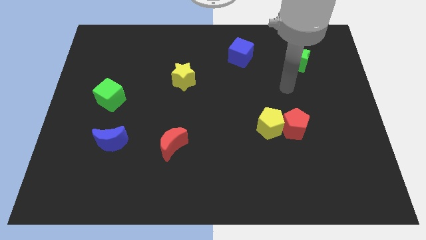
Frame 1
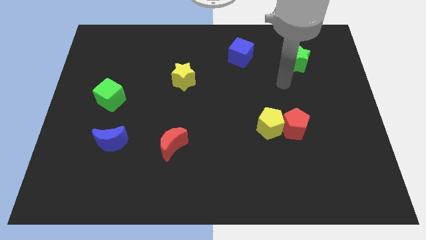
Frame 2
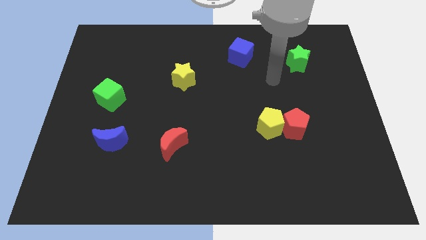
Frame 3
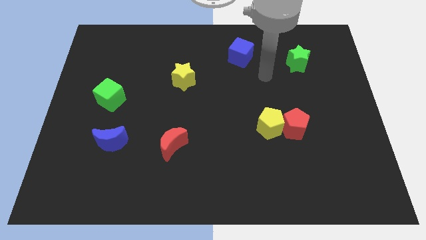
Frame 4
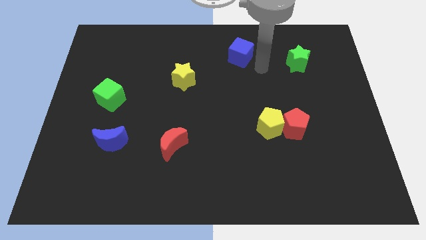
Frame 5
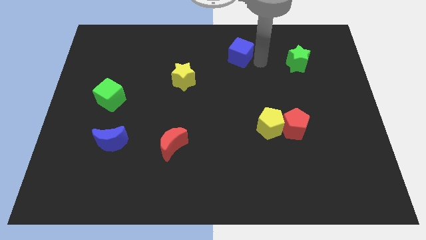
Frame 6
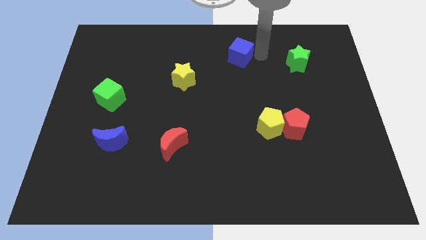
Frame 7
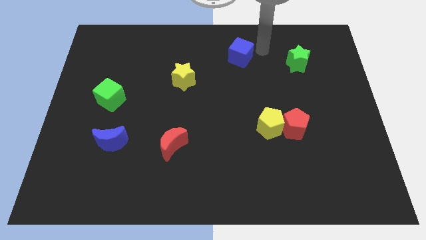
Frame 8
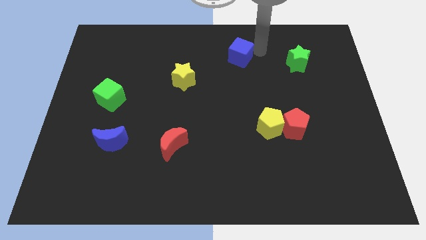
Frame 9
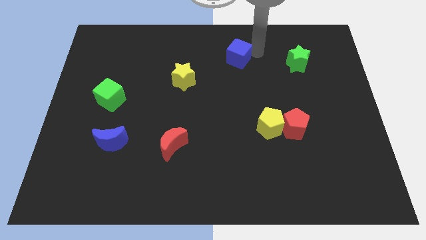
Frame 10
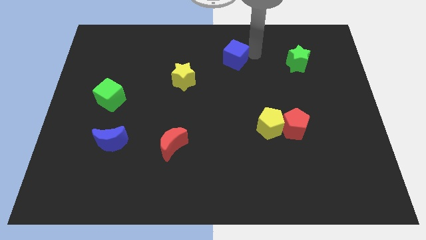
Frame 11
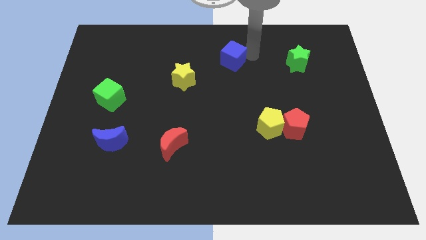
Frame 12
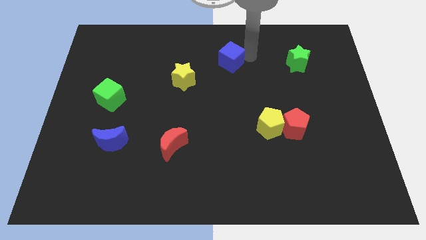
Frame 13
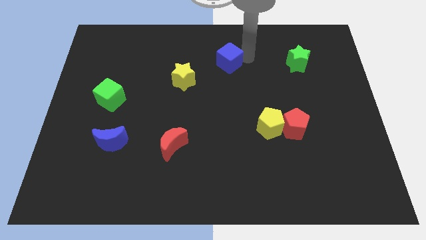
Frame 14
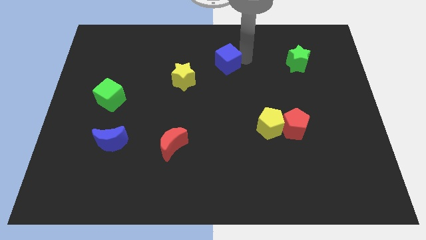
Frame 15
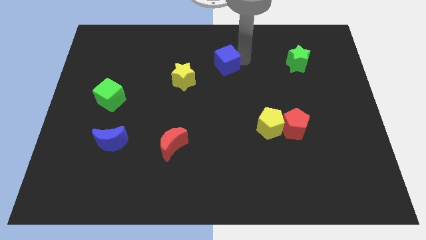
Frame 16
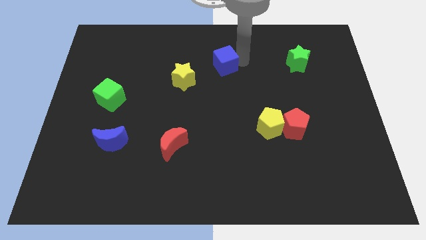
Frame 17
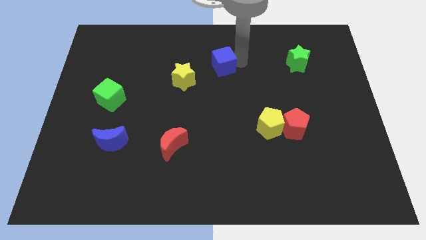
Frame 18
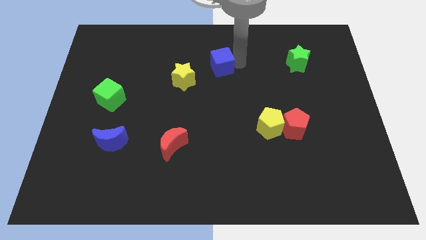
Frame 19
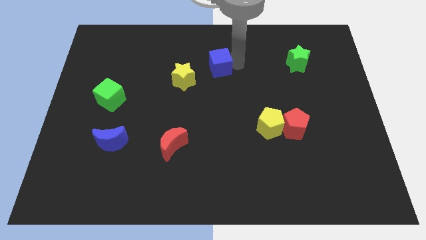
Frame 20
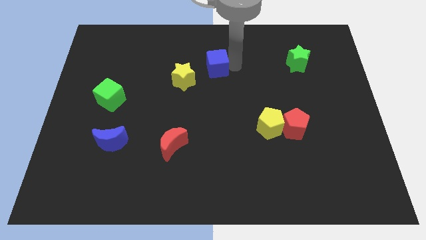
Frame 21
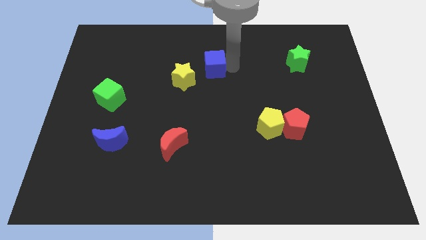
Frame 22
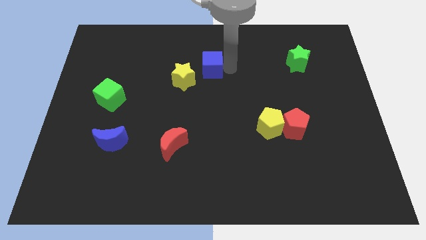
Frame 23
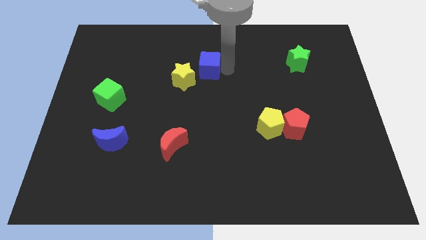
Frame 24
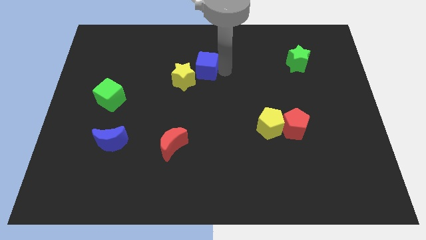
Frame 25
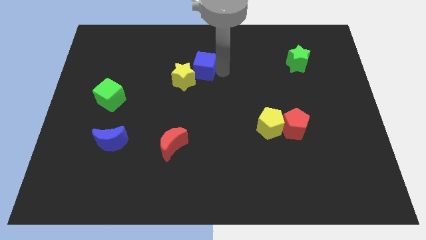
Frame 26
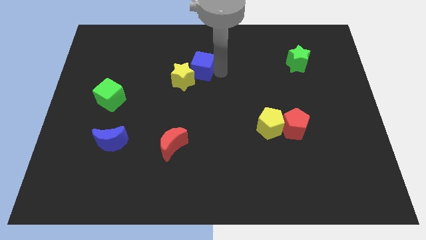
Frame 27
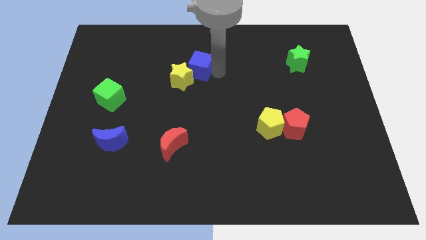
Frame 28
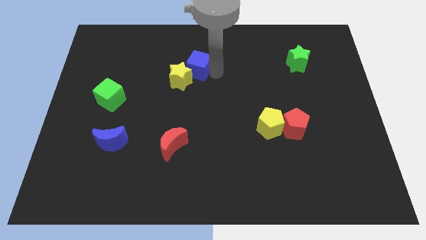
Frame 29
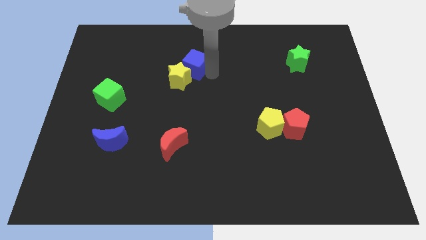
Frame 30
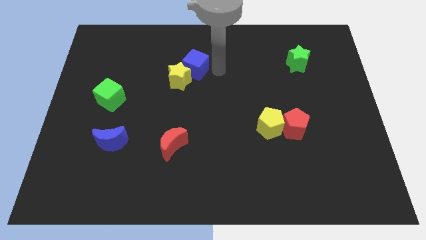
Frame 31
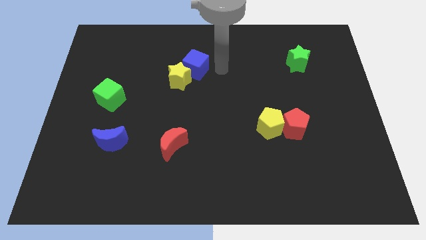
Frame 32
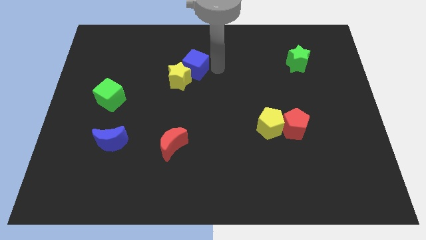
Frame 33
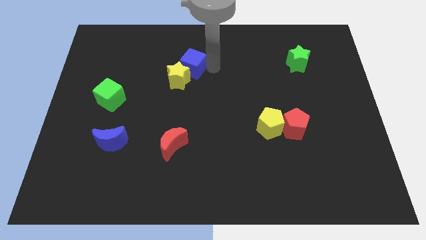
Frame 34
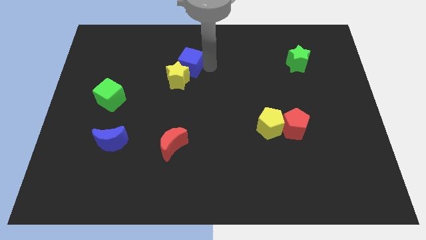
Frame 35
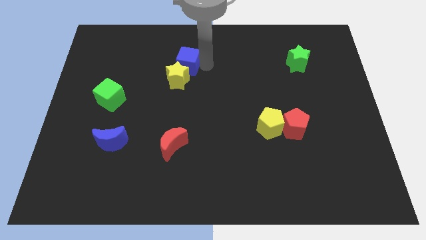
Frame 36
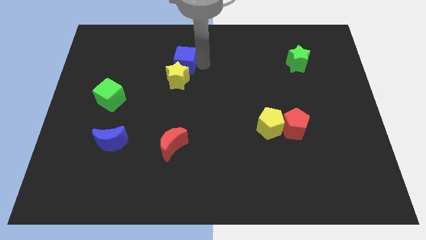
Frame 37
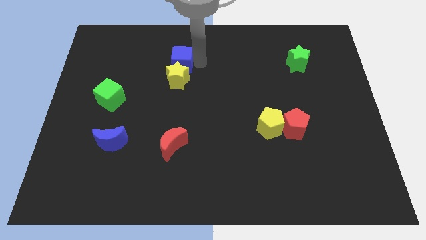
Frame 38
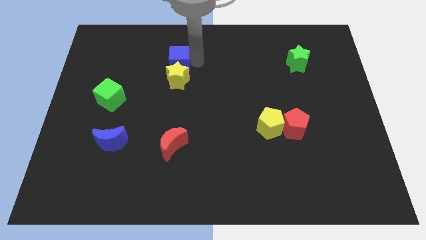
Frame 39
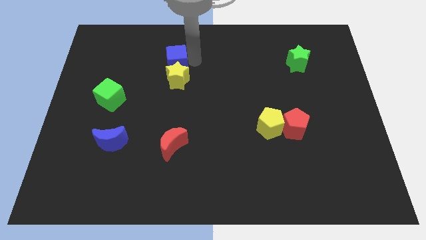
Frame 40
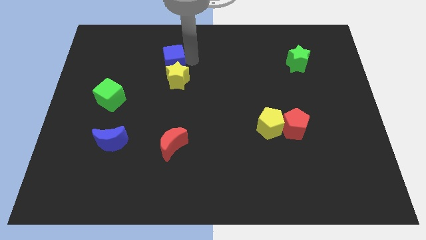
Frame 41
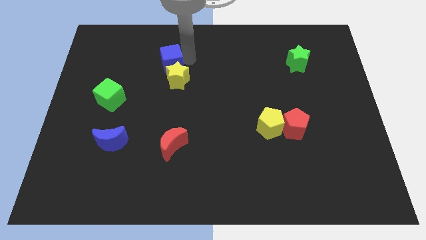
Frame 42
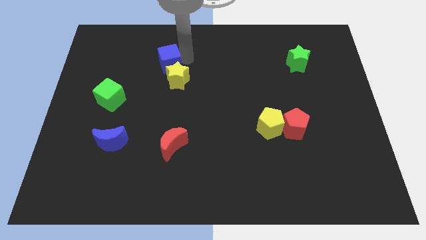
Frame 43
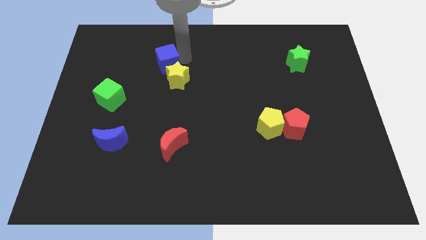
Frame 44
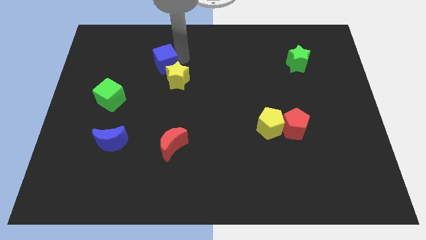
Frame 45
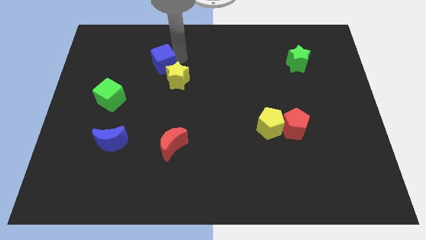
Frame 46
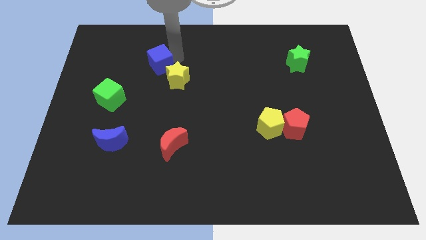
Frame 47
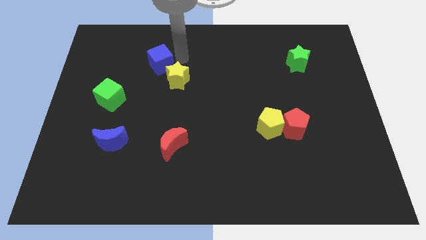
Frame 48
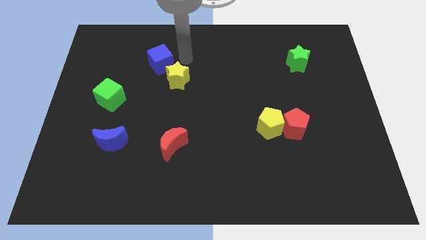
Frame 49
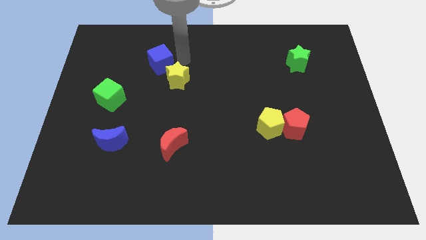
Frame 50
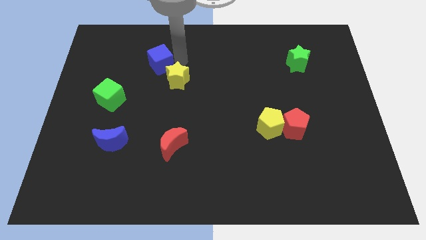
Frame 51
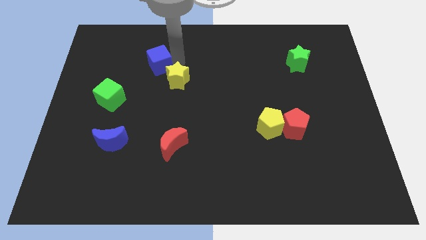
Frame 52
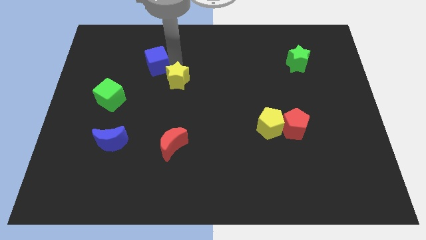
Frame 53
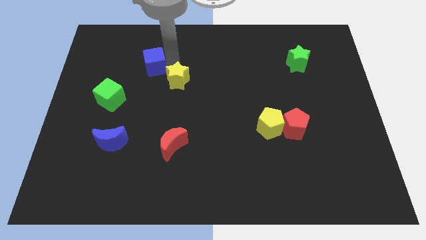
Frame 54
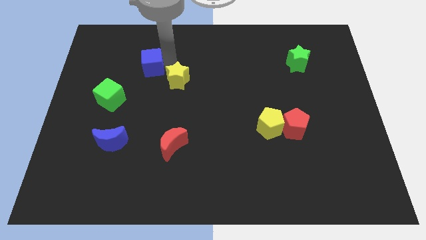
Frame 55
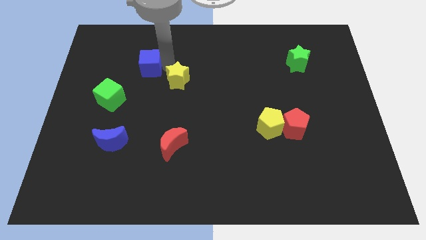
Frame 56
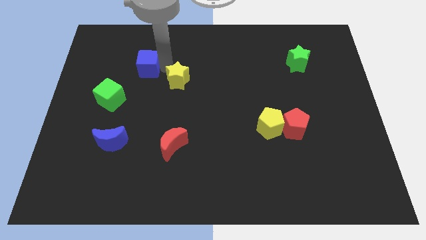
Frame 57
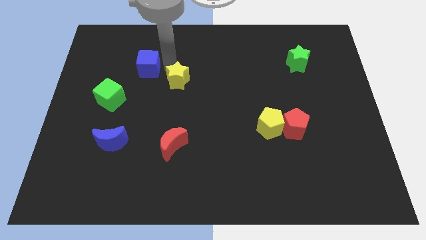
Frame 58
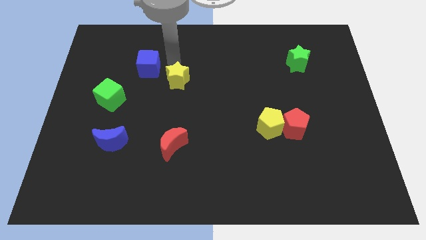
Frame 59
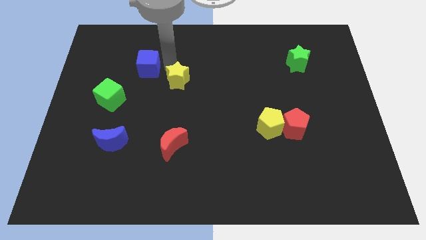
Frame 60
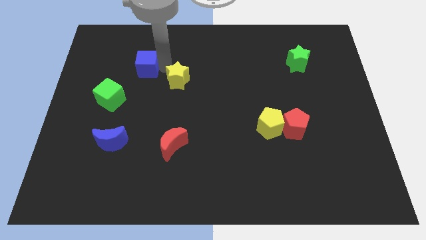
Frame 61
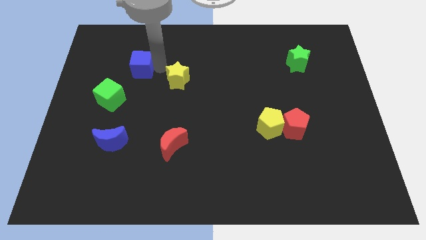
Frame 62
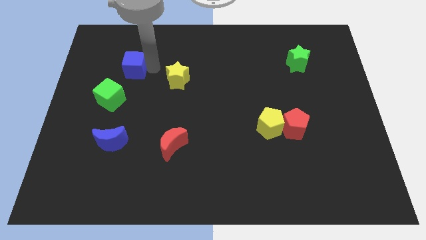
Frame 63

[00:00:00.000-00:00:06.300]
put the blue cube above the green cube

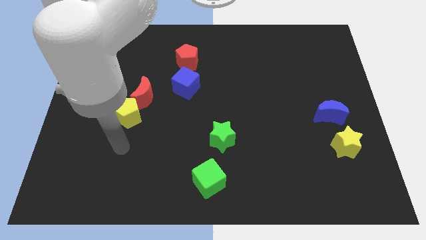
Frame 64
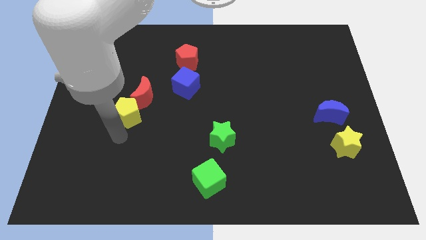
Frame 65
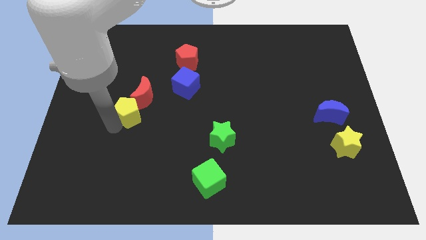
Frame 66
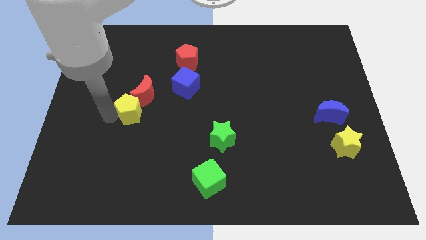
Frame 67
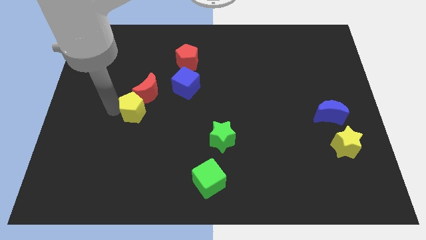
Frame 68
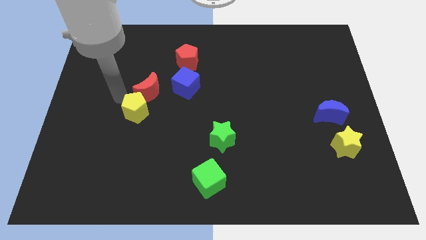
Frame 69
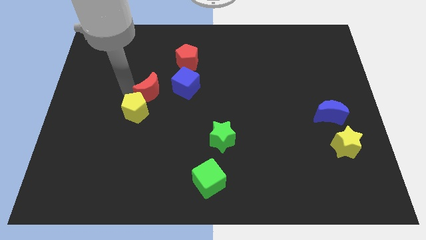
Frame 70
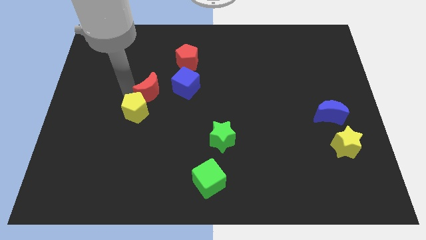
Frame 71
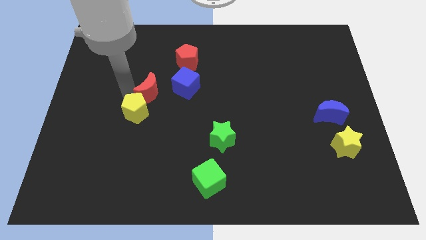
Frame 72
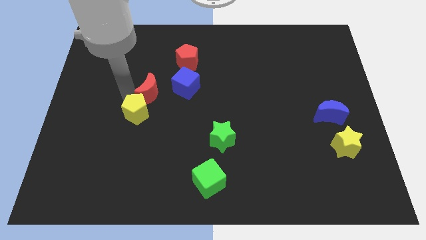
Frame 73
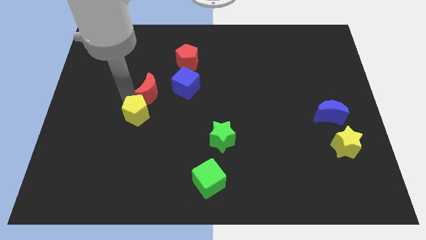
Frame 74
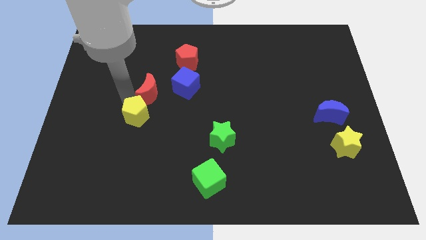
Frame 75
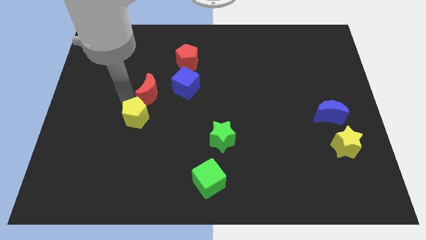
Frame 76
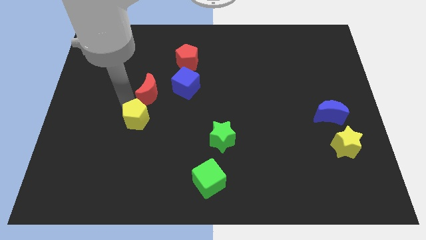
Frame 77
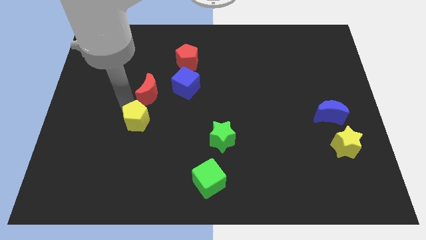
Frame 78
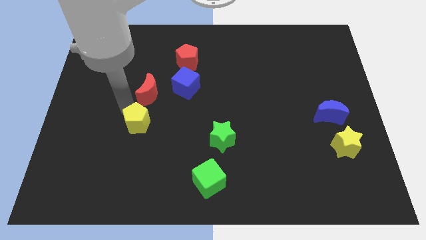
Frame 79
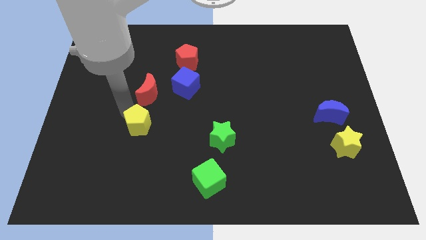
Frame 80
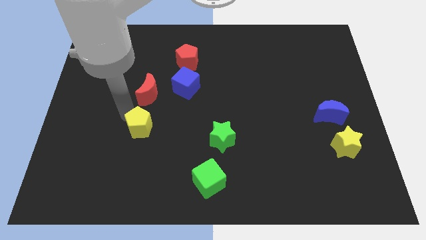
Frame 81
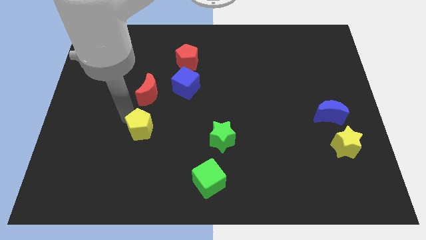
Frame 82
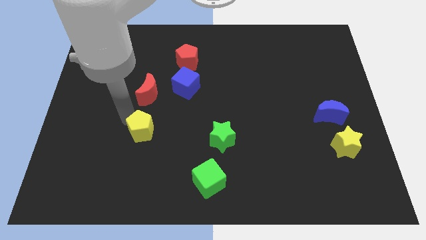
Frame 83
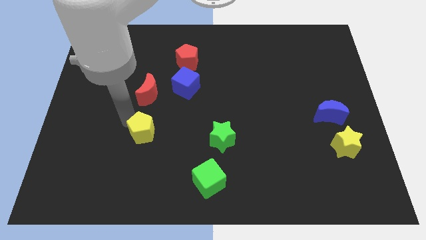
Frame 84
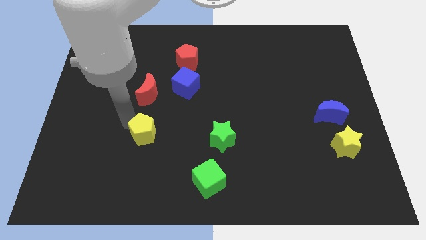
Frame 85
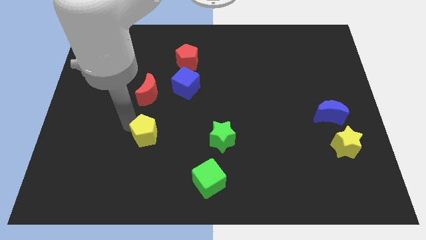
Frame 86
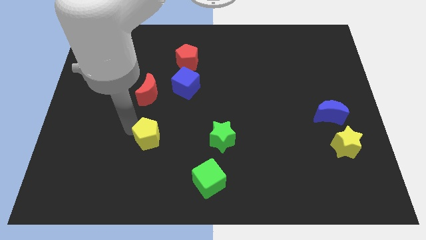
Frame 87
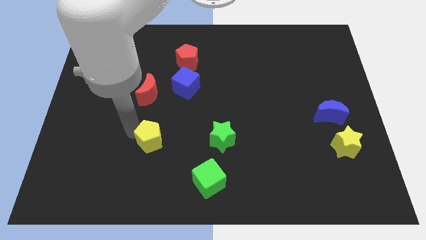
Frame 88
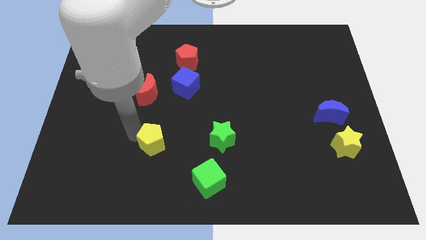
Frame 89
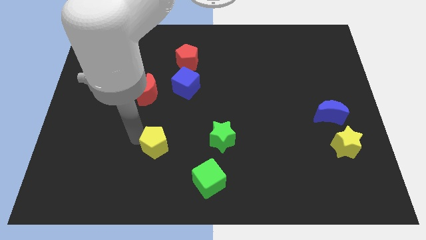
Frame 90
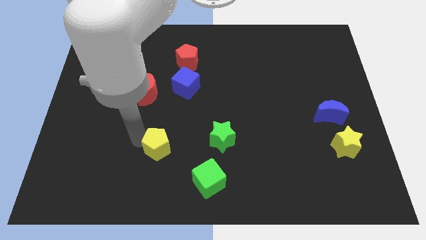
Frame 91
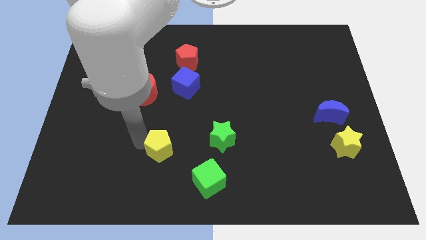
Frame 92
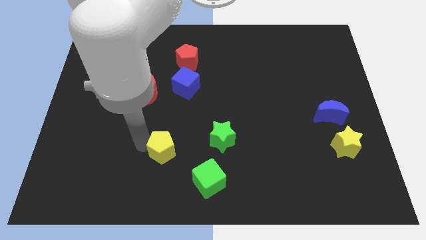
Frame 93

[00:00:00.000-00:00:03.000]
push the yellow pentagon to the top left of the green cube
